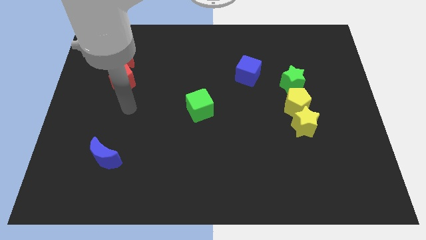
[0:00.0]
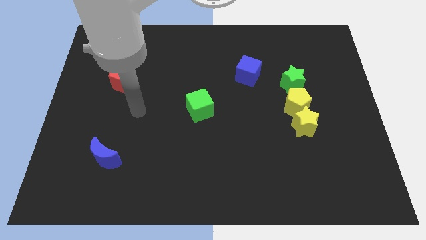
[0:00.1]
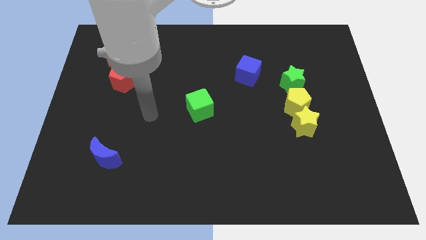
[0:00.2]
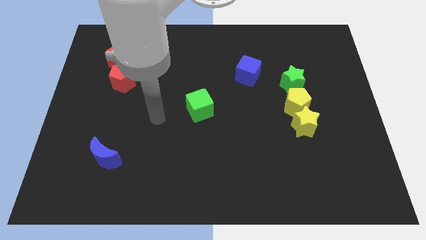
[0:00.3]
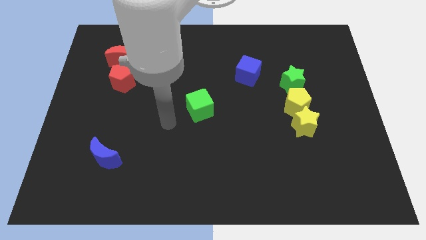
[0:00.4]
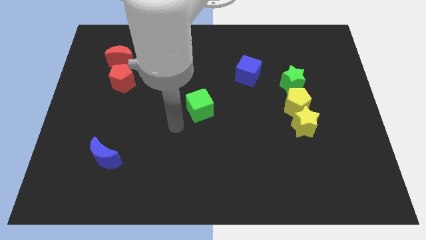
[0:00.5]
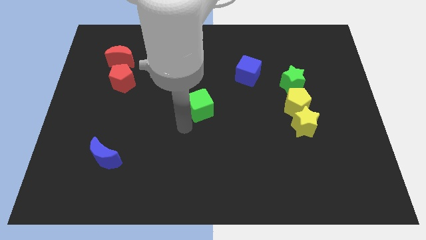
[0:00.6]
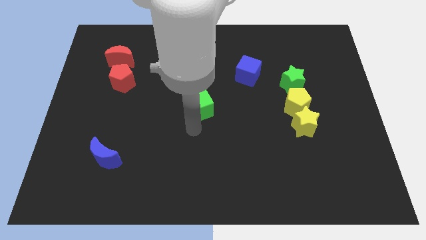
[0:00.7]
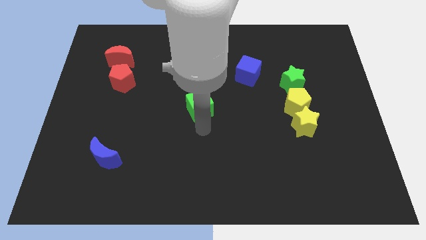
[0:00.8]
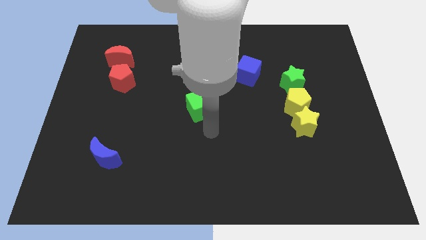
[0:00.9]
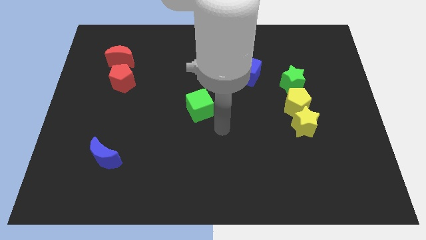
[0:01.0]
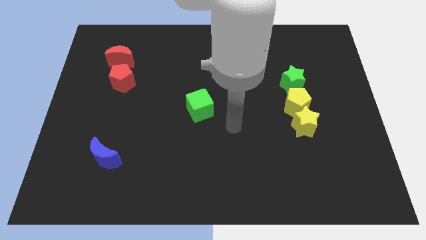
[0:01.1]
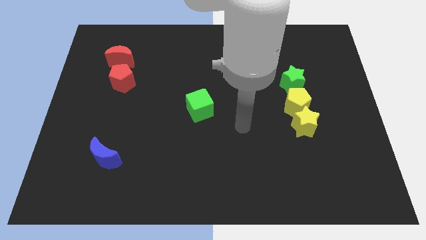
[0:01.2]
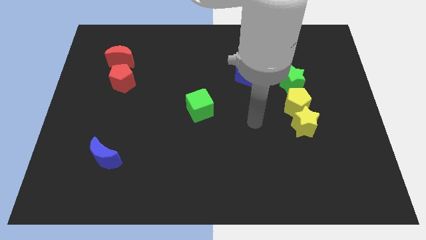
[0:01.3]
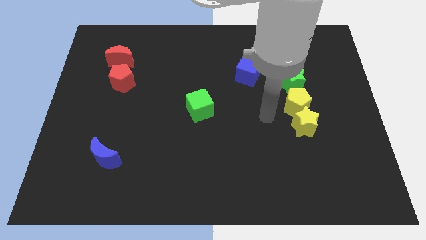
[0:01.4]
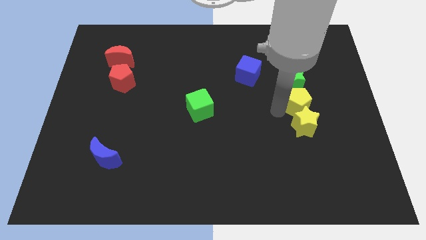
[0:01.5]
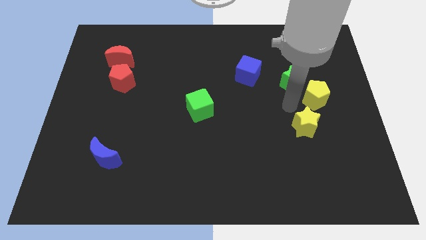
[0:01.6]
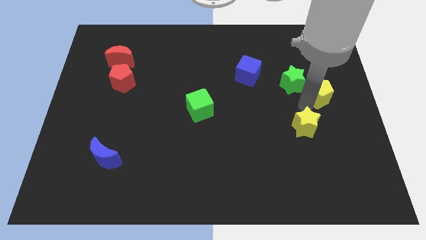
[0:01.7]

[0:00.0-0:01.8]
separate the yellow star from the yellow pentagon

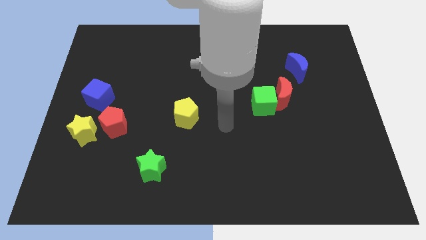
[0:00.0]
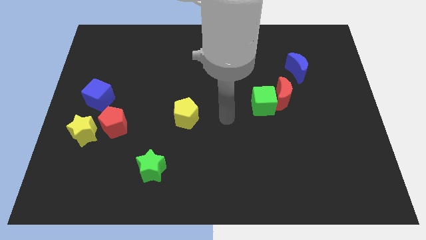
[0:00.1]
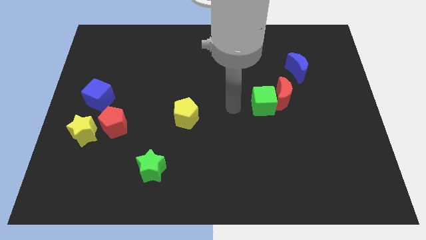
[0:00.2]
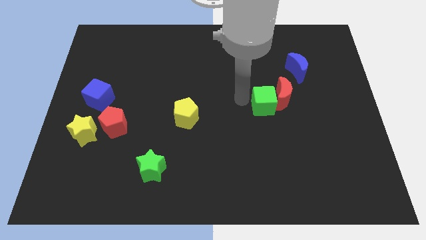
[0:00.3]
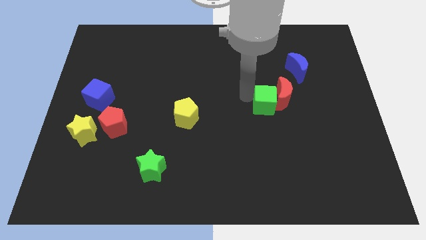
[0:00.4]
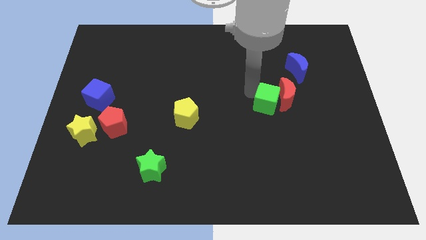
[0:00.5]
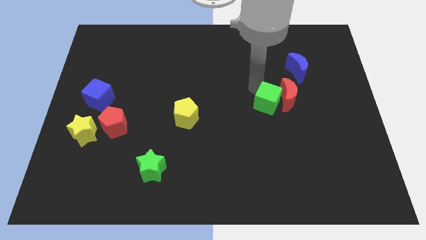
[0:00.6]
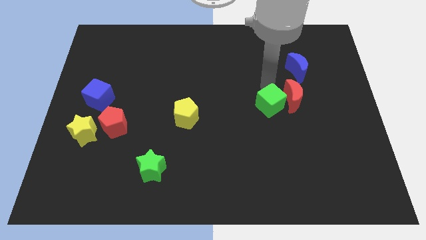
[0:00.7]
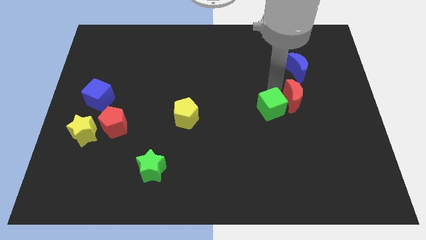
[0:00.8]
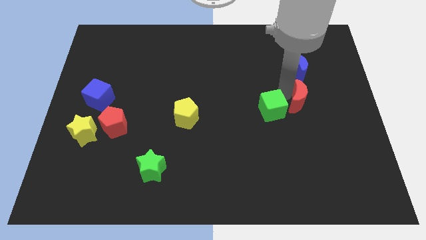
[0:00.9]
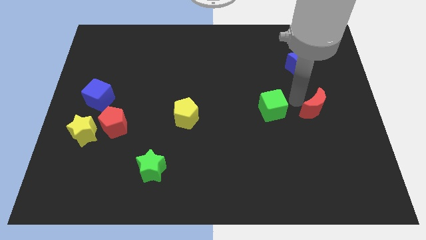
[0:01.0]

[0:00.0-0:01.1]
separate the green cube from the red moon

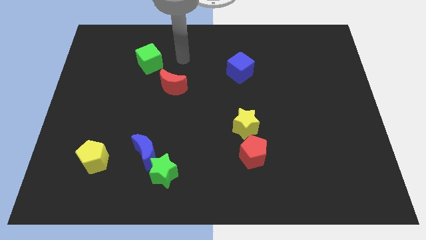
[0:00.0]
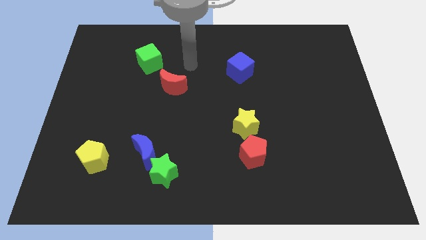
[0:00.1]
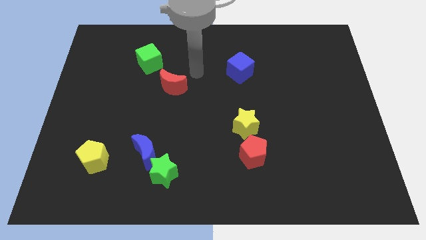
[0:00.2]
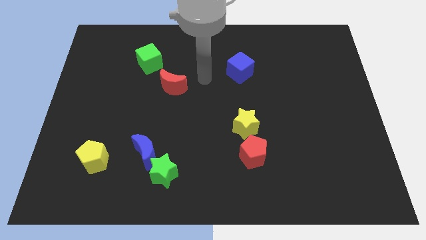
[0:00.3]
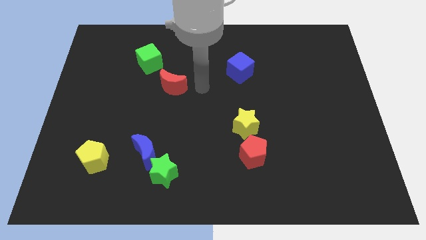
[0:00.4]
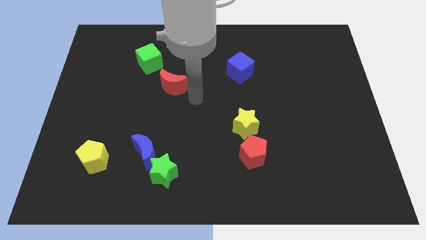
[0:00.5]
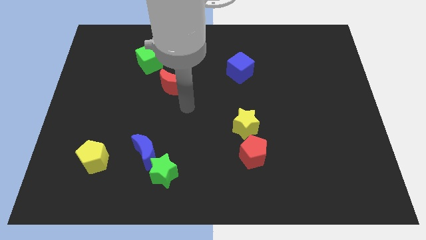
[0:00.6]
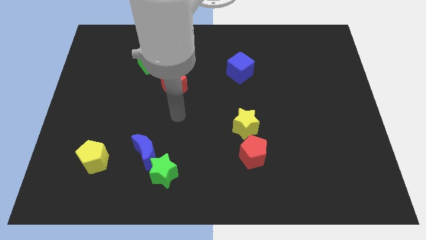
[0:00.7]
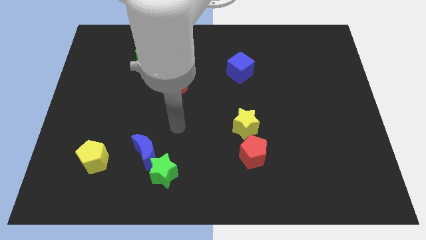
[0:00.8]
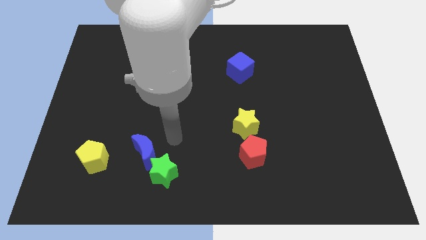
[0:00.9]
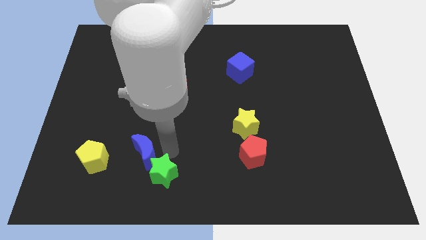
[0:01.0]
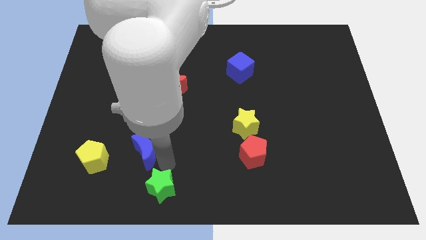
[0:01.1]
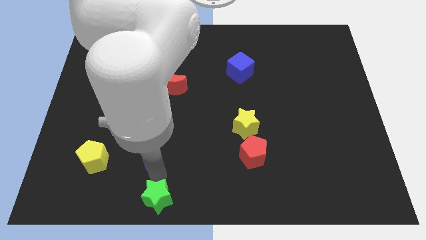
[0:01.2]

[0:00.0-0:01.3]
pull the blue moon apart from the green star

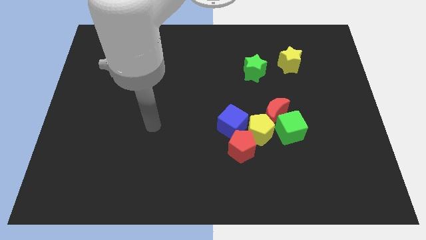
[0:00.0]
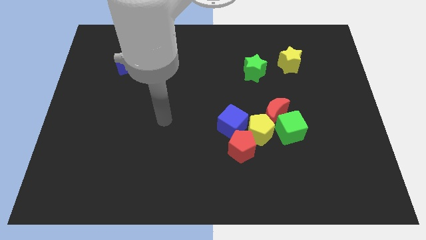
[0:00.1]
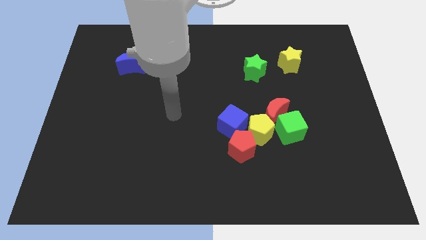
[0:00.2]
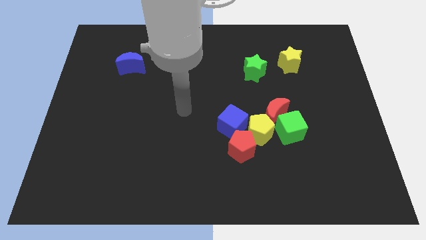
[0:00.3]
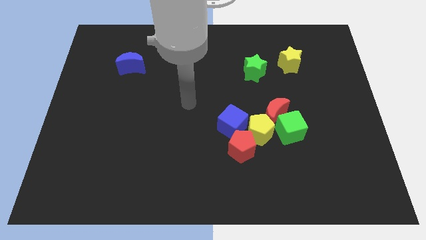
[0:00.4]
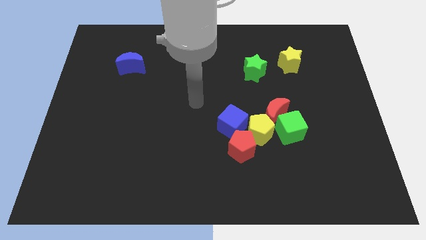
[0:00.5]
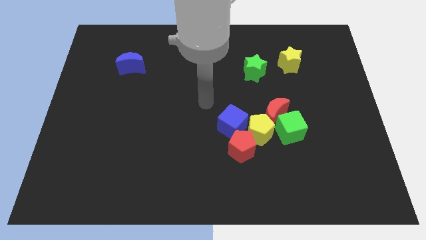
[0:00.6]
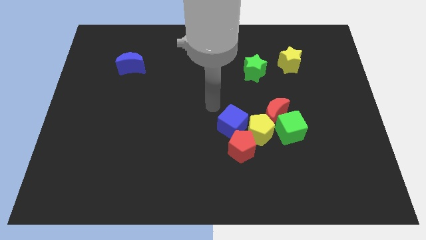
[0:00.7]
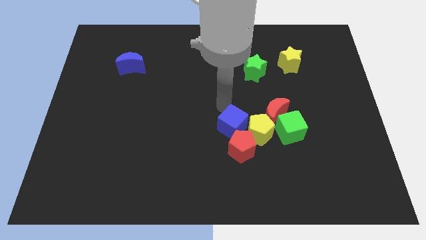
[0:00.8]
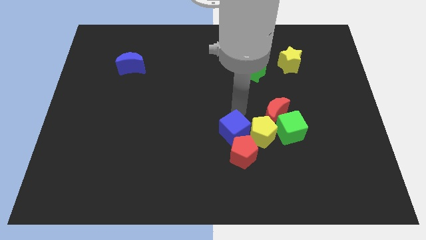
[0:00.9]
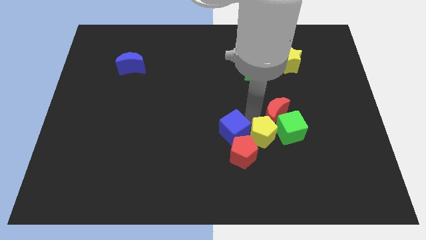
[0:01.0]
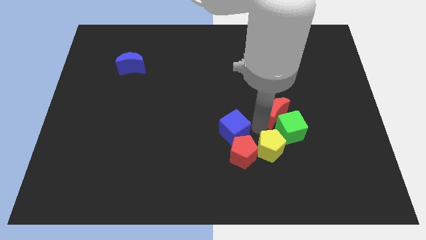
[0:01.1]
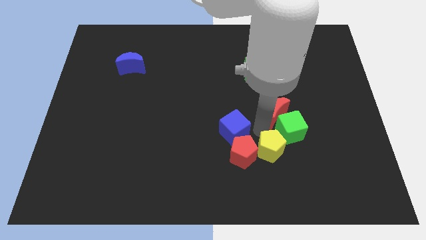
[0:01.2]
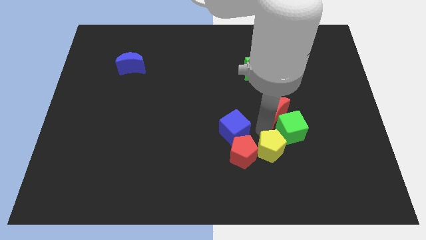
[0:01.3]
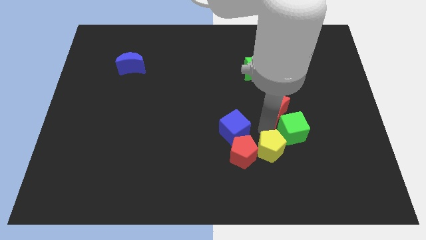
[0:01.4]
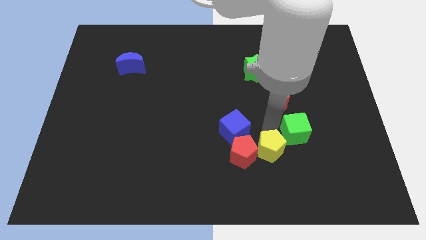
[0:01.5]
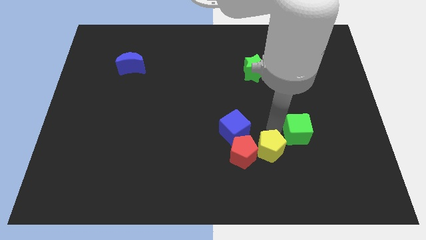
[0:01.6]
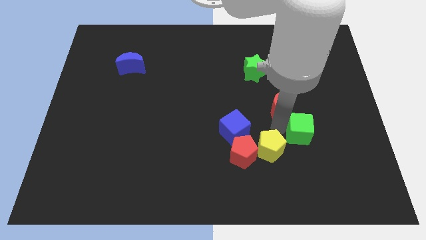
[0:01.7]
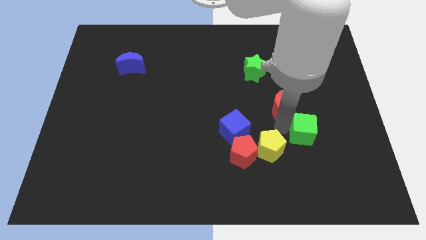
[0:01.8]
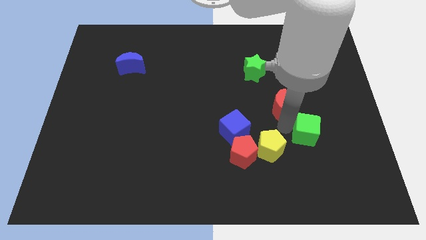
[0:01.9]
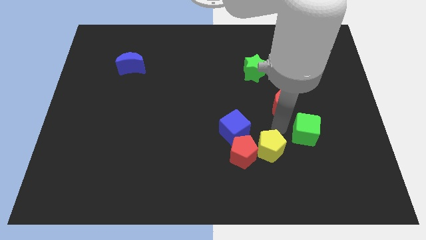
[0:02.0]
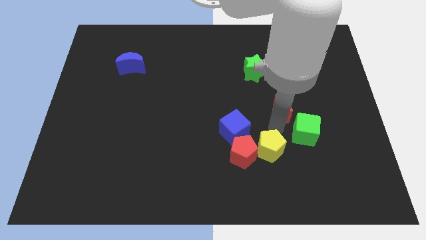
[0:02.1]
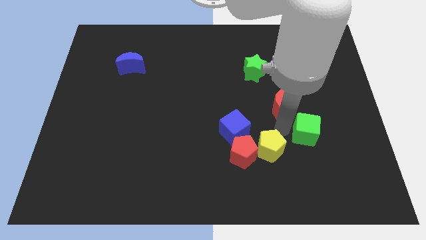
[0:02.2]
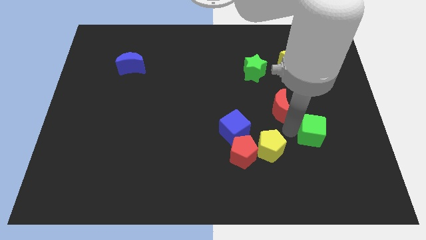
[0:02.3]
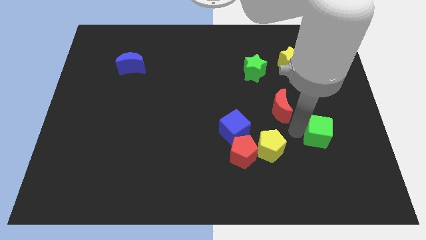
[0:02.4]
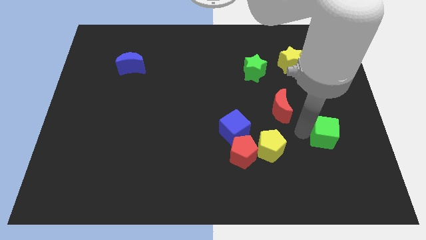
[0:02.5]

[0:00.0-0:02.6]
move the green cube away from the red moon and yellow pentagon

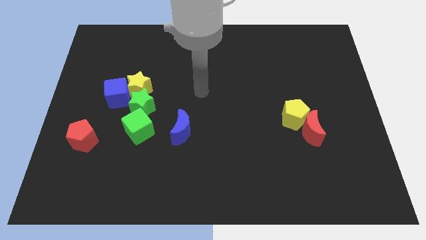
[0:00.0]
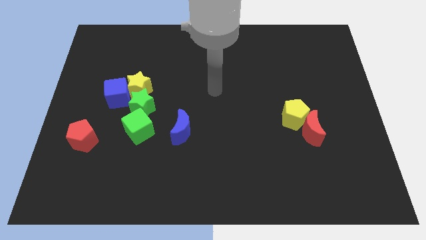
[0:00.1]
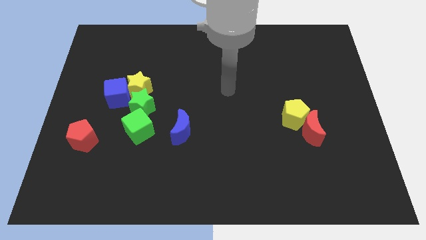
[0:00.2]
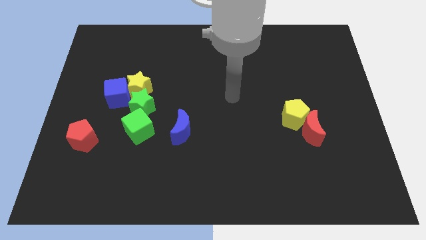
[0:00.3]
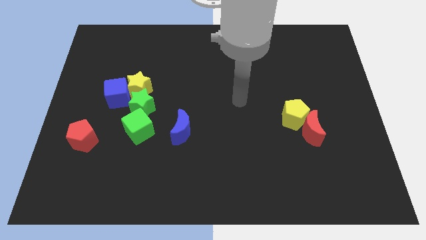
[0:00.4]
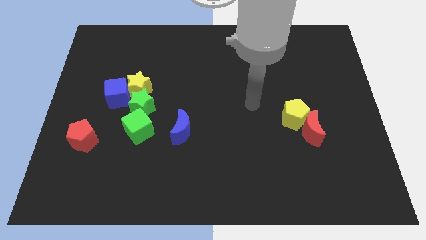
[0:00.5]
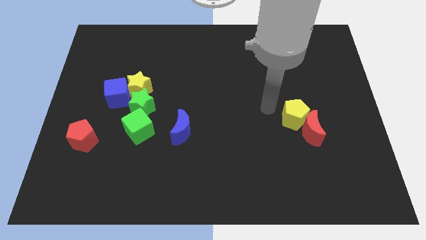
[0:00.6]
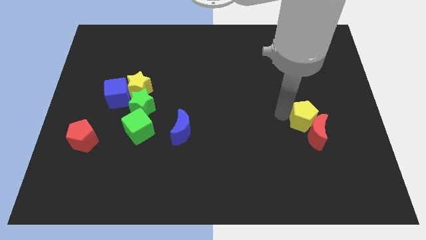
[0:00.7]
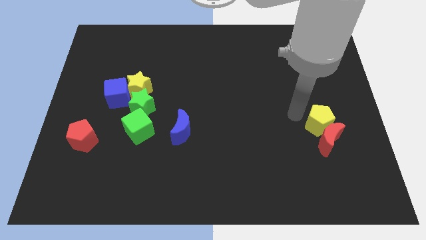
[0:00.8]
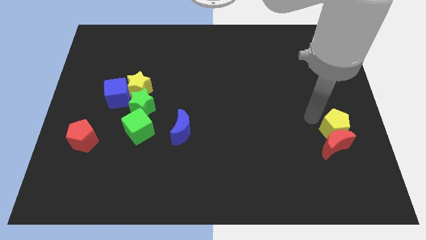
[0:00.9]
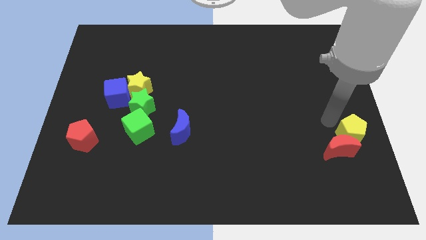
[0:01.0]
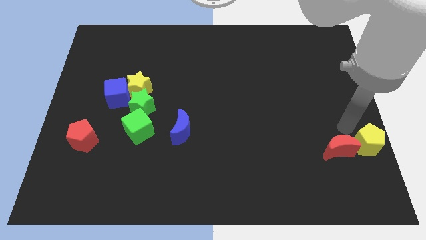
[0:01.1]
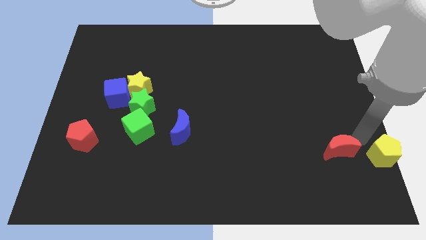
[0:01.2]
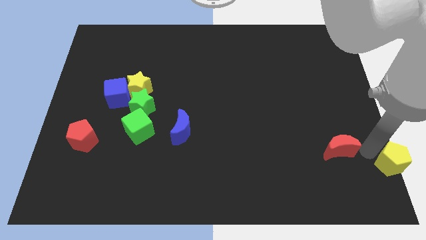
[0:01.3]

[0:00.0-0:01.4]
separate the red moon from the yellow pentagon

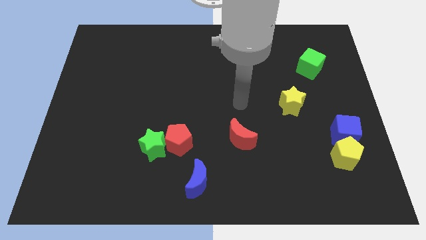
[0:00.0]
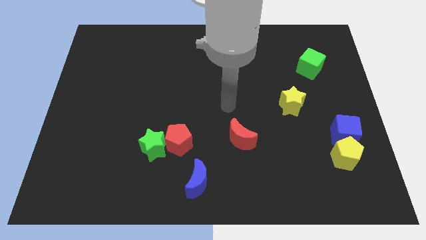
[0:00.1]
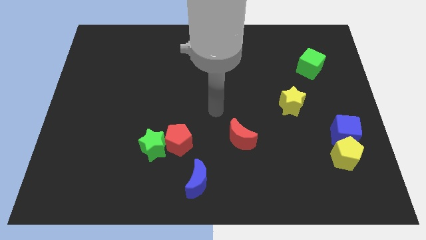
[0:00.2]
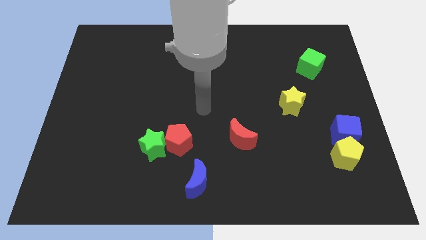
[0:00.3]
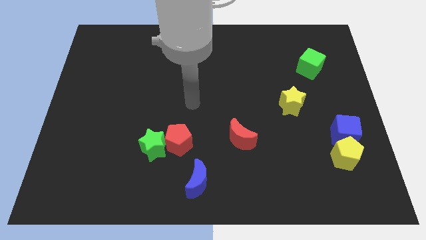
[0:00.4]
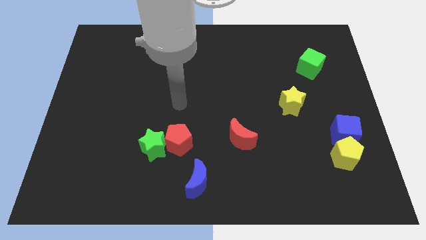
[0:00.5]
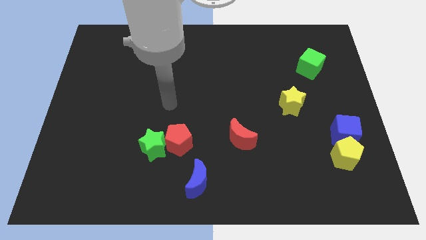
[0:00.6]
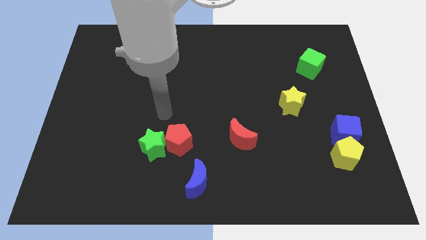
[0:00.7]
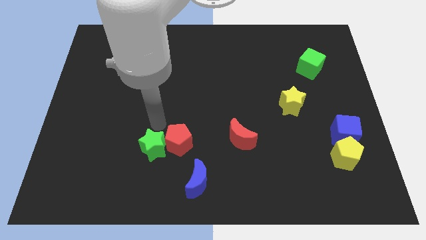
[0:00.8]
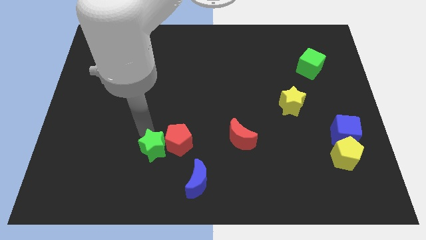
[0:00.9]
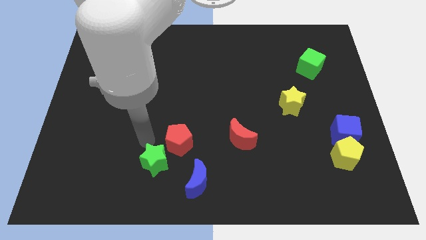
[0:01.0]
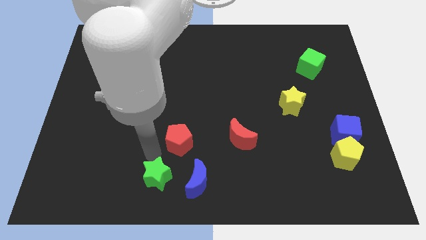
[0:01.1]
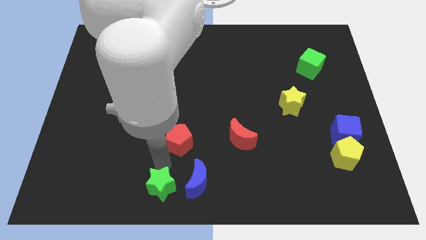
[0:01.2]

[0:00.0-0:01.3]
pull the red pentagon apart from the green star
